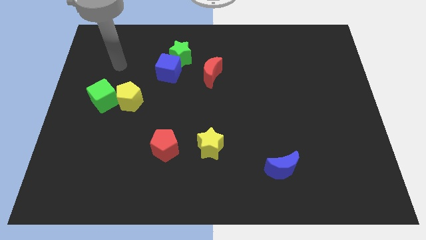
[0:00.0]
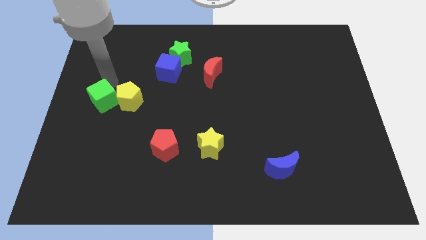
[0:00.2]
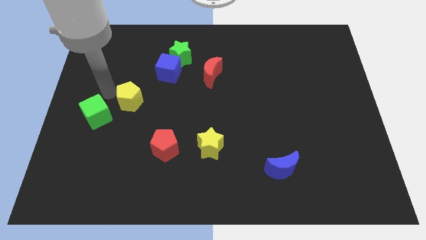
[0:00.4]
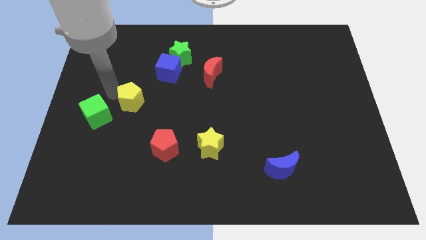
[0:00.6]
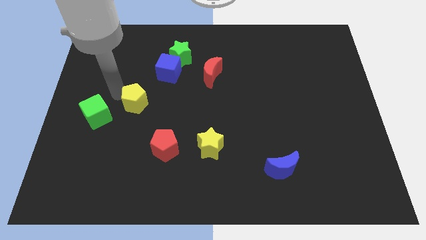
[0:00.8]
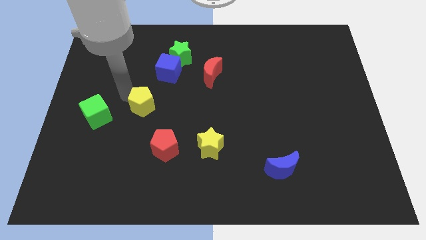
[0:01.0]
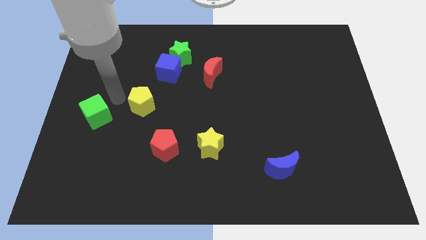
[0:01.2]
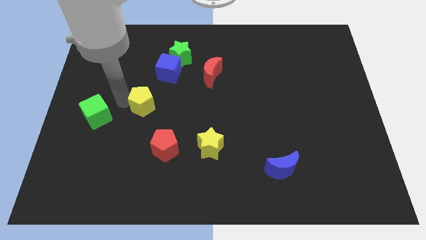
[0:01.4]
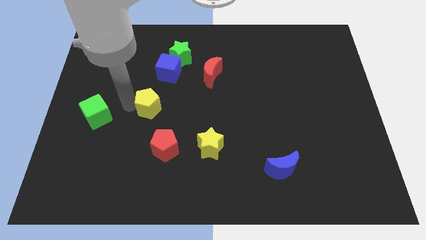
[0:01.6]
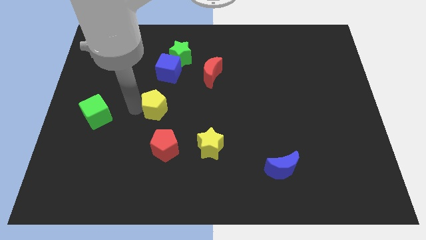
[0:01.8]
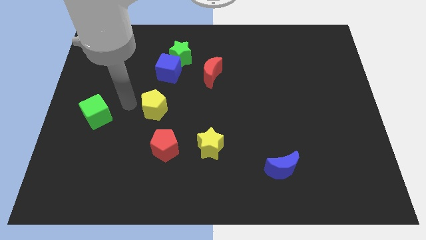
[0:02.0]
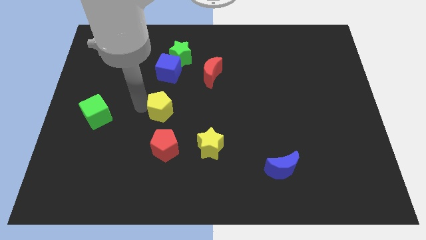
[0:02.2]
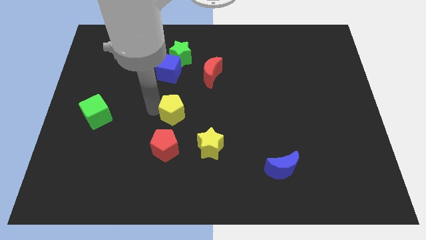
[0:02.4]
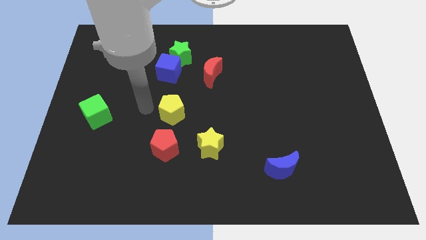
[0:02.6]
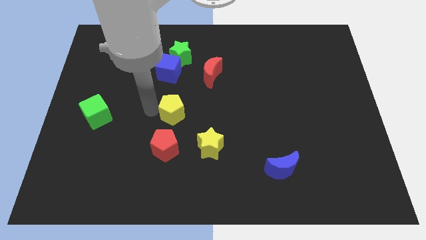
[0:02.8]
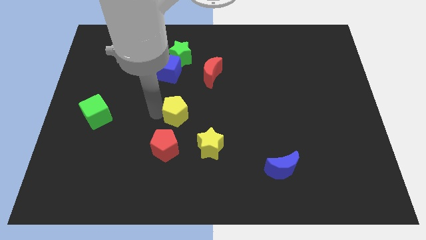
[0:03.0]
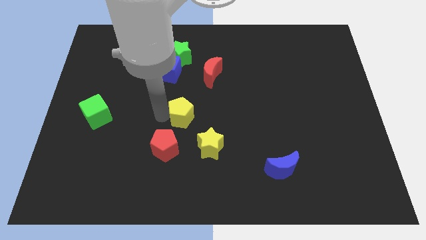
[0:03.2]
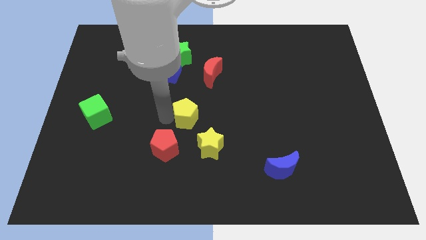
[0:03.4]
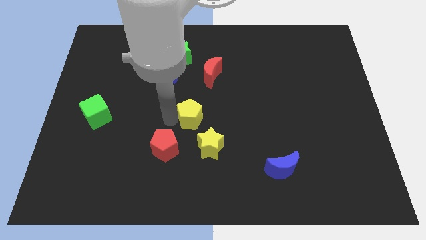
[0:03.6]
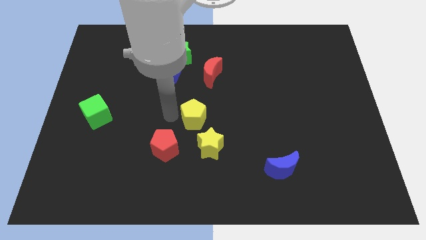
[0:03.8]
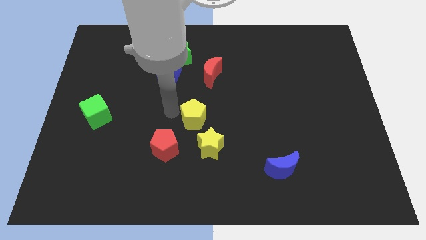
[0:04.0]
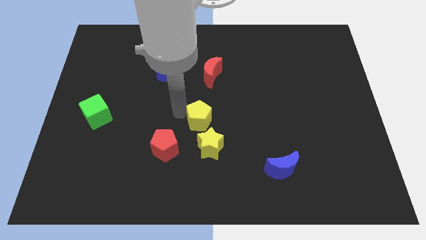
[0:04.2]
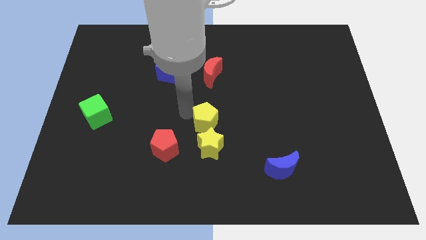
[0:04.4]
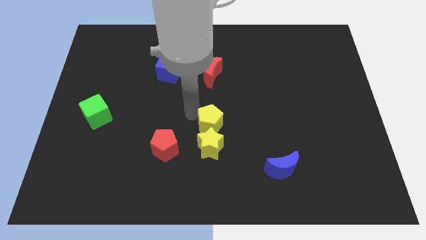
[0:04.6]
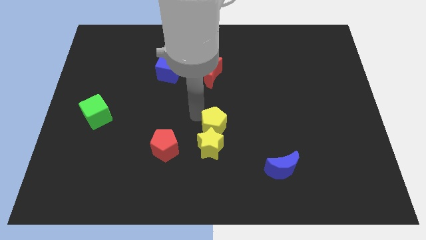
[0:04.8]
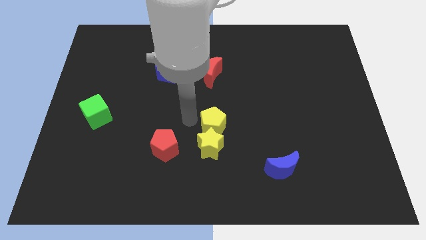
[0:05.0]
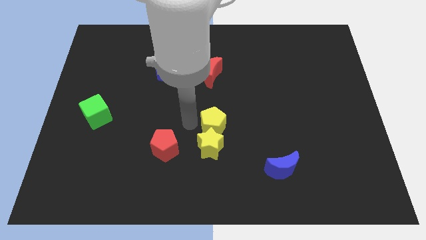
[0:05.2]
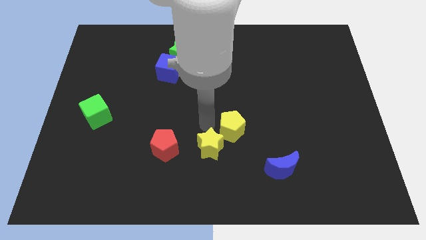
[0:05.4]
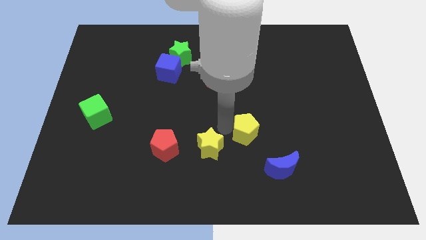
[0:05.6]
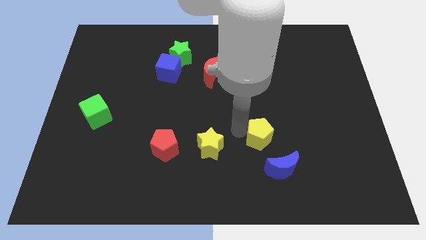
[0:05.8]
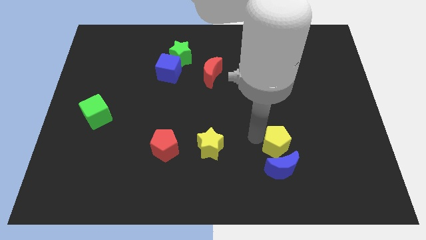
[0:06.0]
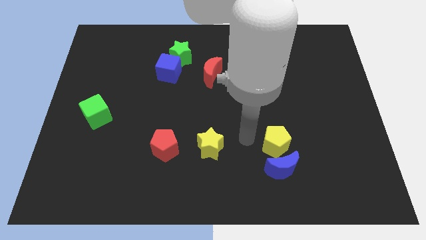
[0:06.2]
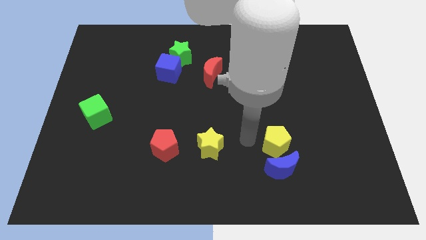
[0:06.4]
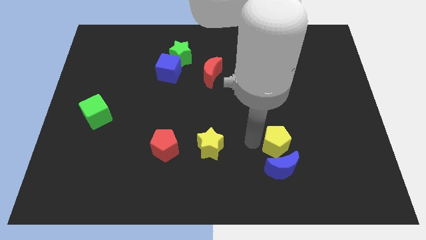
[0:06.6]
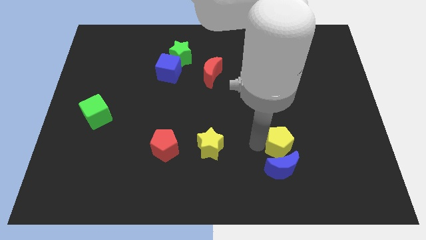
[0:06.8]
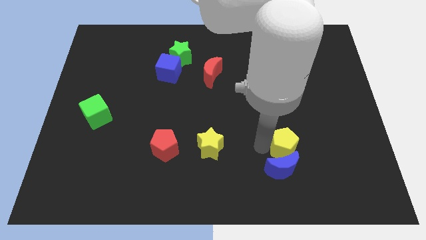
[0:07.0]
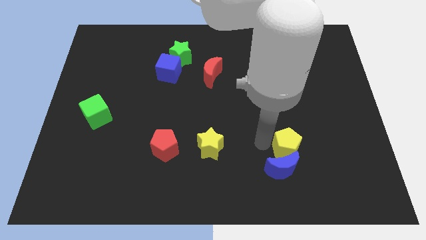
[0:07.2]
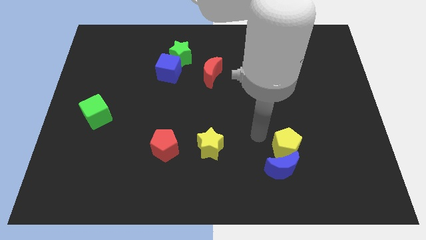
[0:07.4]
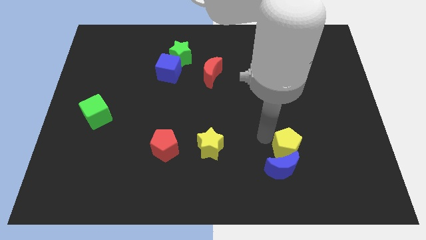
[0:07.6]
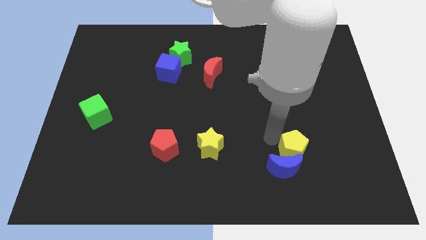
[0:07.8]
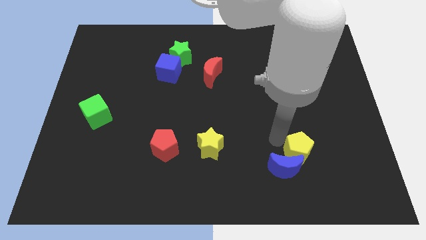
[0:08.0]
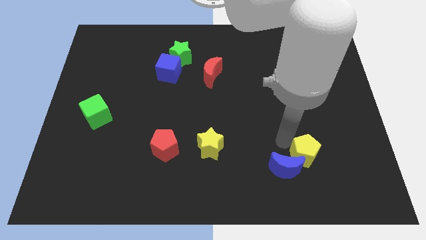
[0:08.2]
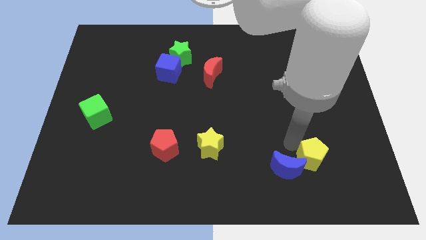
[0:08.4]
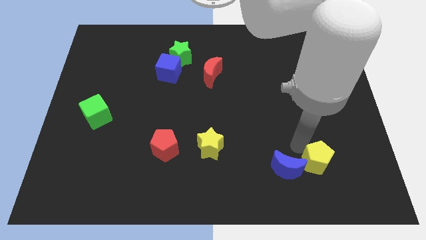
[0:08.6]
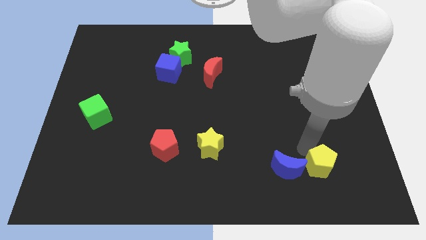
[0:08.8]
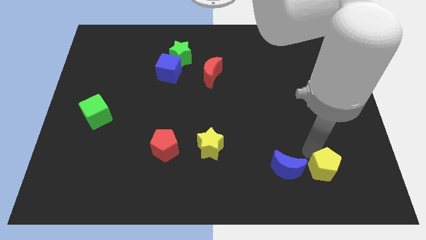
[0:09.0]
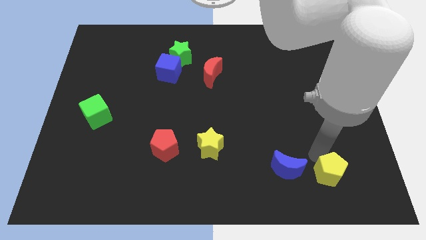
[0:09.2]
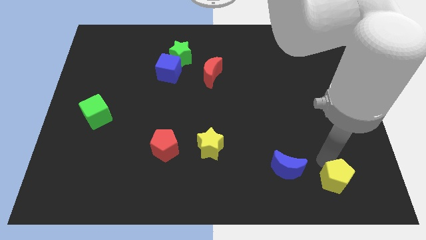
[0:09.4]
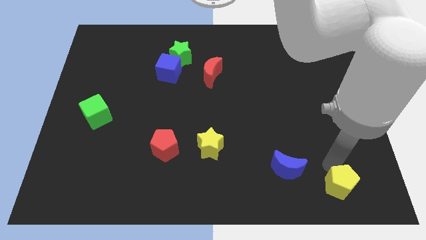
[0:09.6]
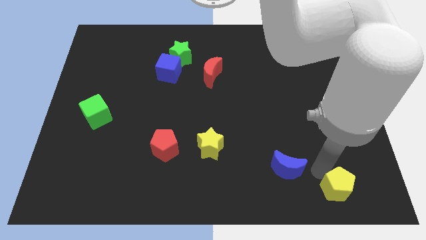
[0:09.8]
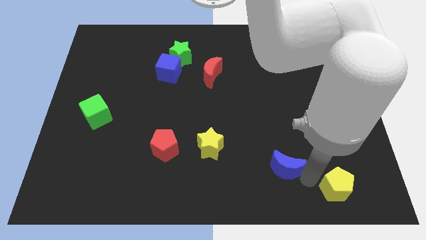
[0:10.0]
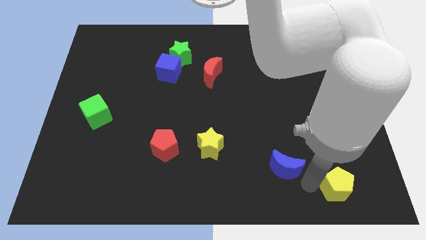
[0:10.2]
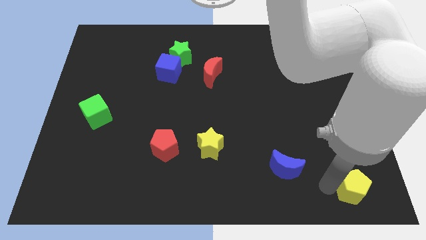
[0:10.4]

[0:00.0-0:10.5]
move the yellow pentagon to the lower right corner
